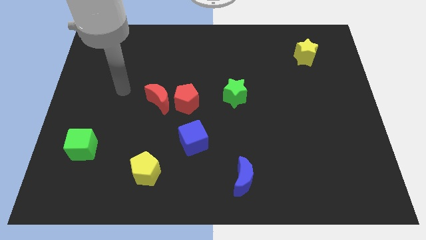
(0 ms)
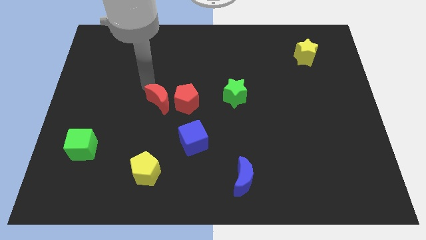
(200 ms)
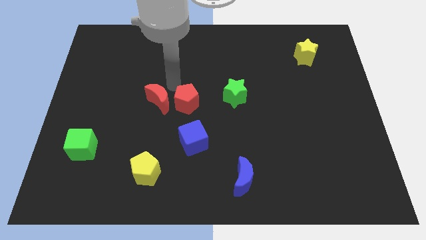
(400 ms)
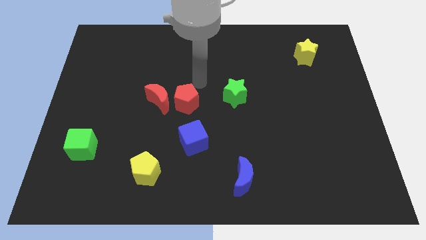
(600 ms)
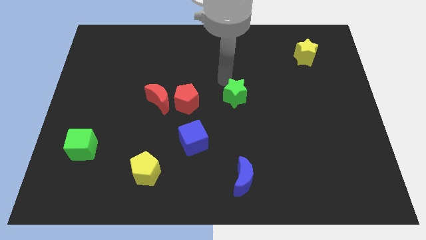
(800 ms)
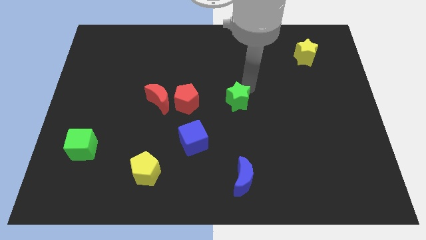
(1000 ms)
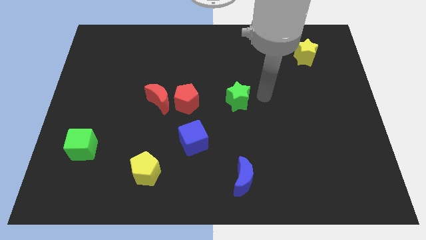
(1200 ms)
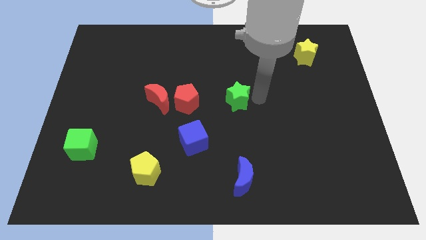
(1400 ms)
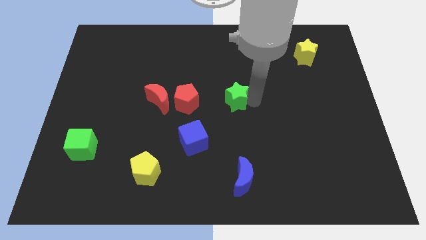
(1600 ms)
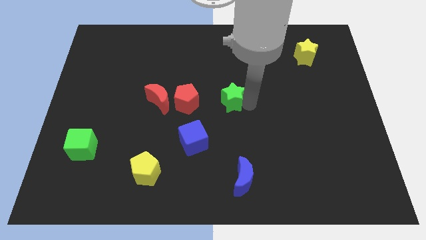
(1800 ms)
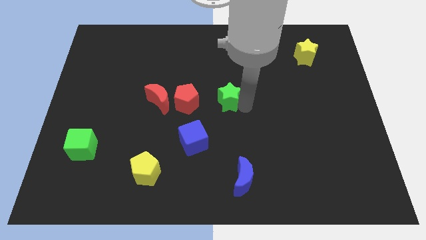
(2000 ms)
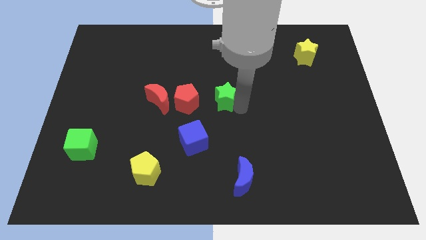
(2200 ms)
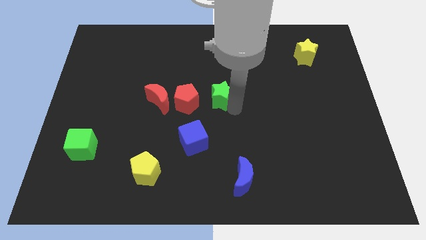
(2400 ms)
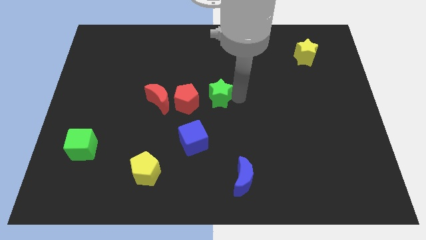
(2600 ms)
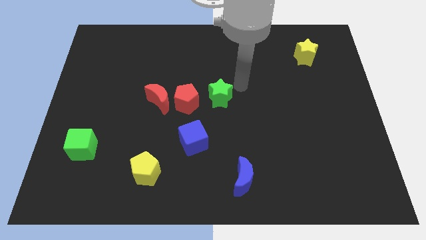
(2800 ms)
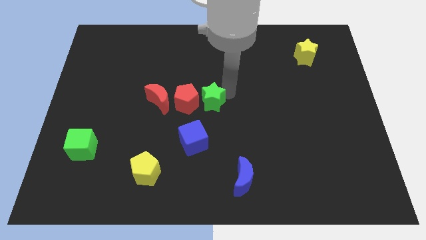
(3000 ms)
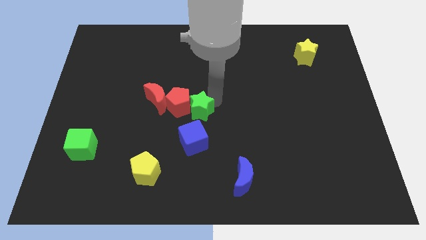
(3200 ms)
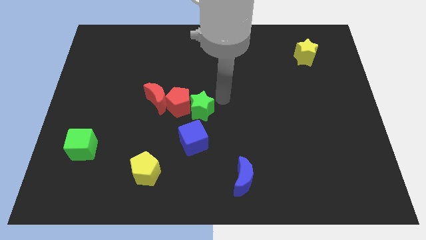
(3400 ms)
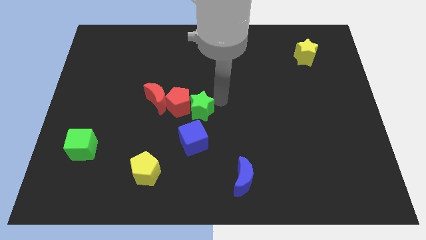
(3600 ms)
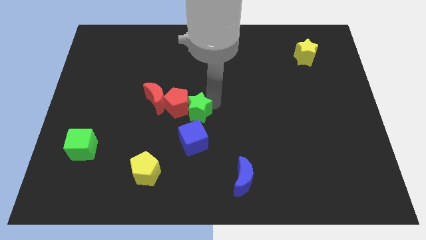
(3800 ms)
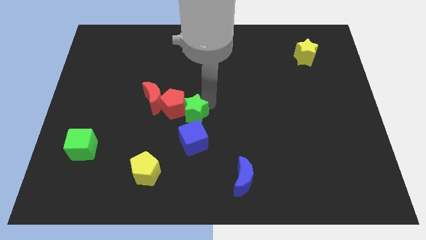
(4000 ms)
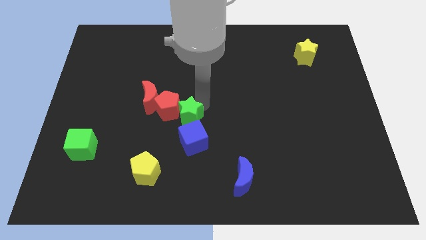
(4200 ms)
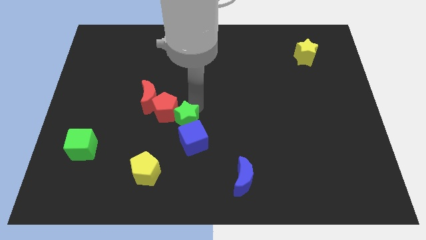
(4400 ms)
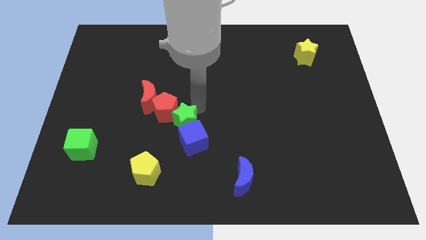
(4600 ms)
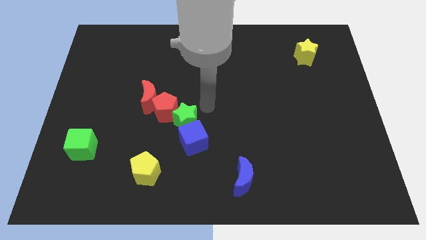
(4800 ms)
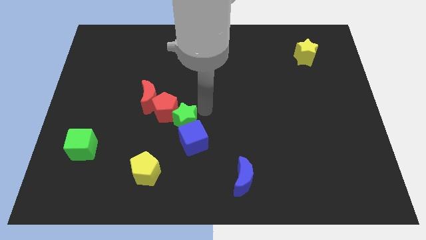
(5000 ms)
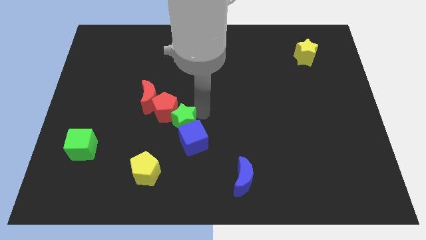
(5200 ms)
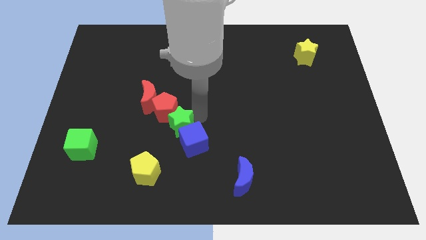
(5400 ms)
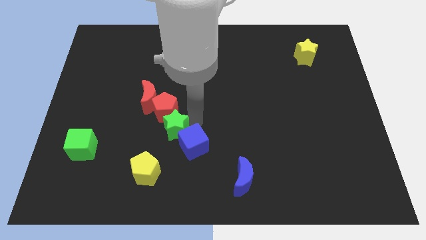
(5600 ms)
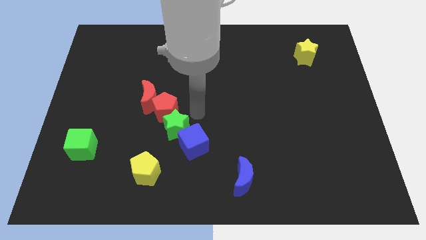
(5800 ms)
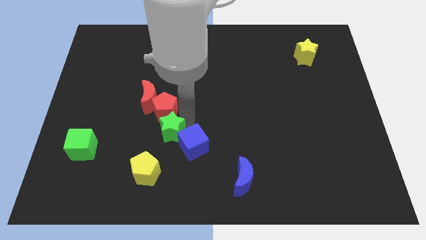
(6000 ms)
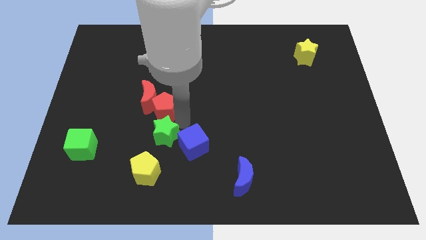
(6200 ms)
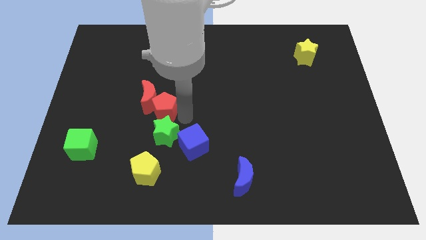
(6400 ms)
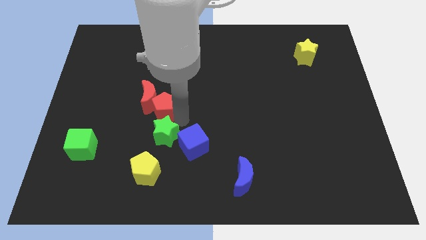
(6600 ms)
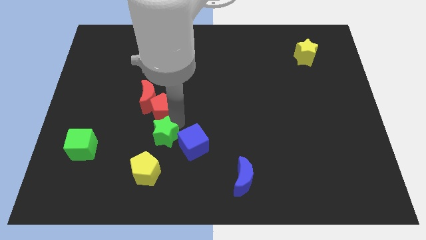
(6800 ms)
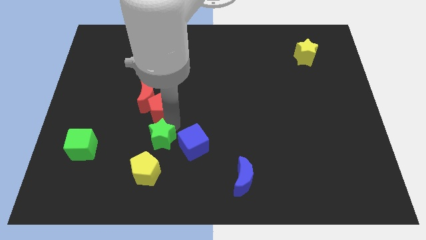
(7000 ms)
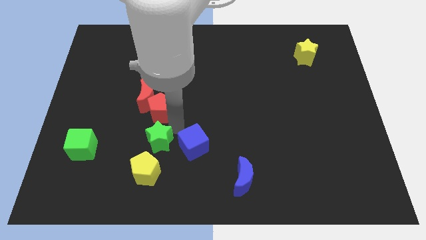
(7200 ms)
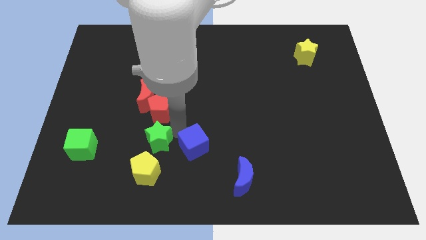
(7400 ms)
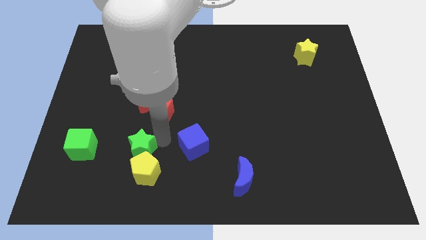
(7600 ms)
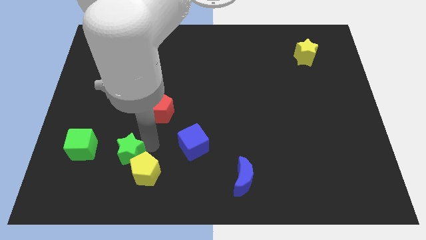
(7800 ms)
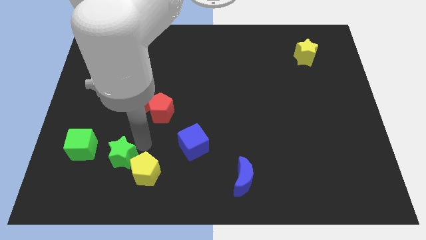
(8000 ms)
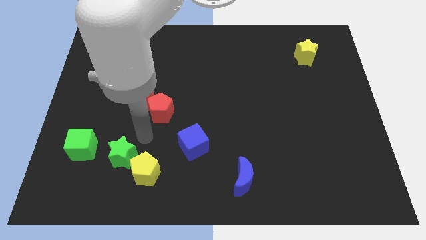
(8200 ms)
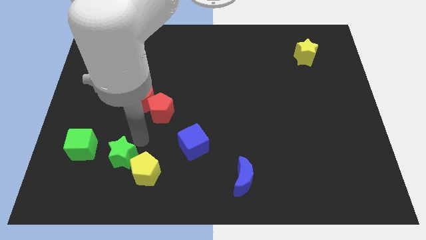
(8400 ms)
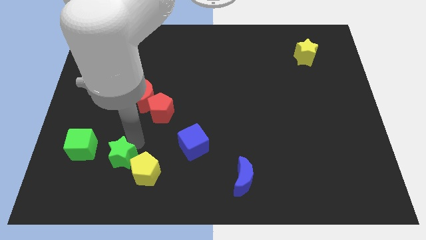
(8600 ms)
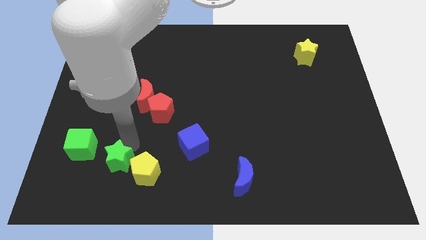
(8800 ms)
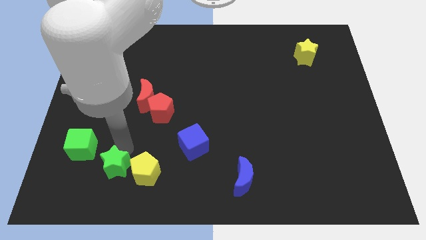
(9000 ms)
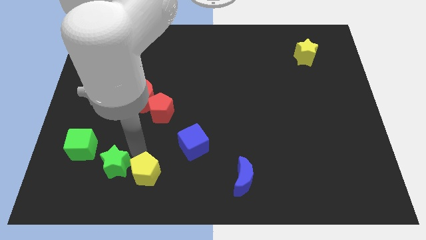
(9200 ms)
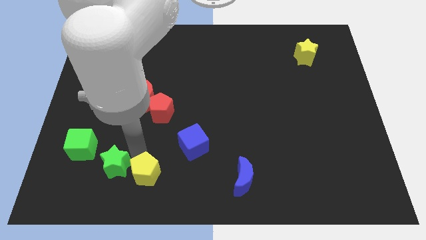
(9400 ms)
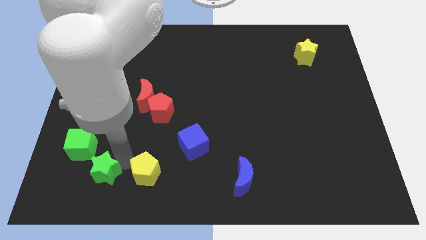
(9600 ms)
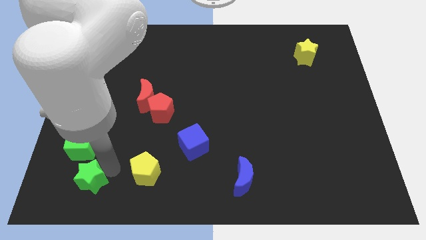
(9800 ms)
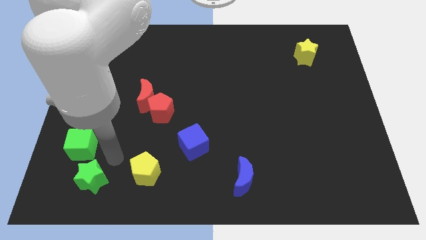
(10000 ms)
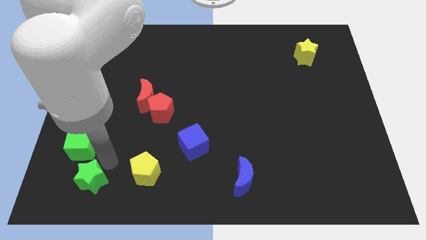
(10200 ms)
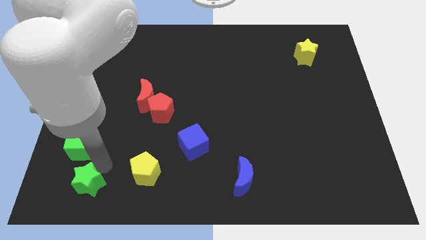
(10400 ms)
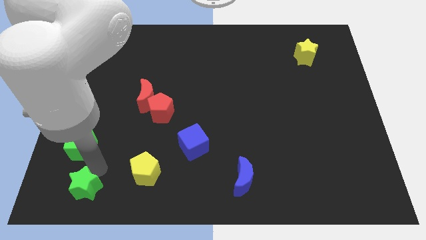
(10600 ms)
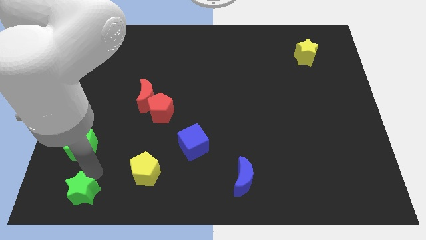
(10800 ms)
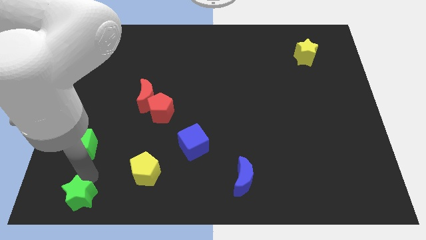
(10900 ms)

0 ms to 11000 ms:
slide the green star to the bottom left corner

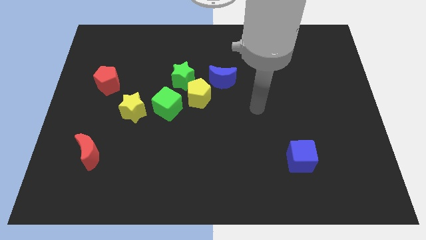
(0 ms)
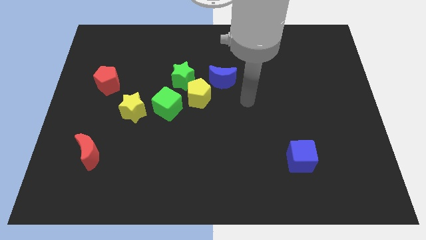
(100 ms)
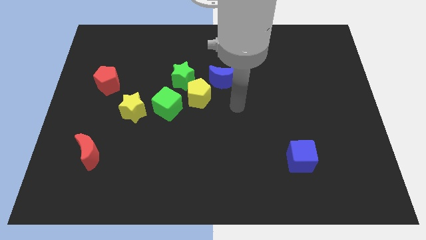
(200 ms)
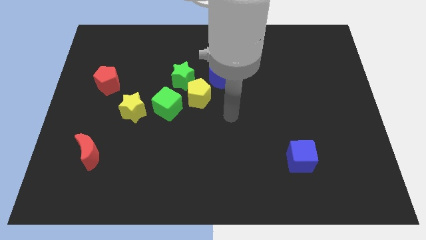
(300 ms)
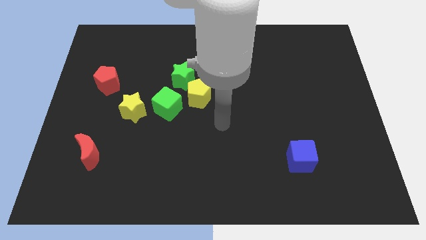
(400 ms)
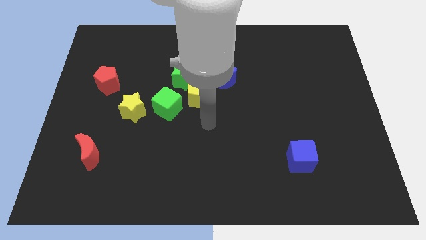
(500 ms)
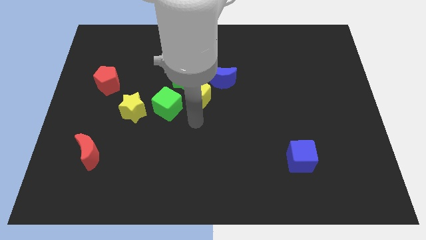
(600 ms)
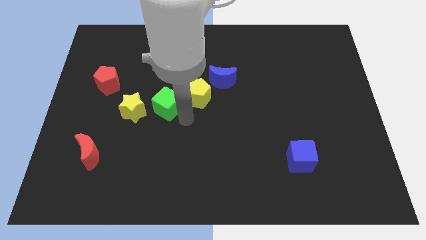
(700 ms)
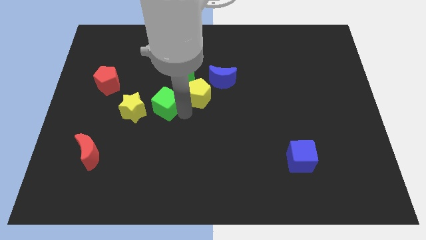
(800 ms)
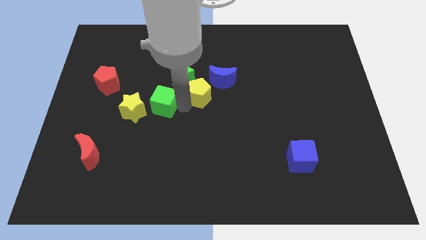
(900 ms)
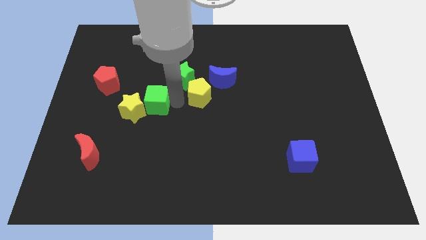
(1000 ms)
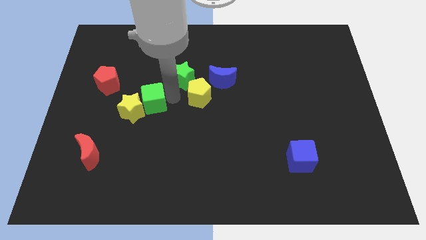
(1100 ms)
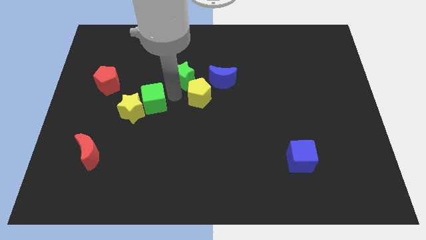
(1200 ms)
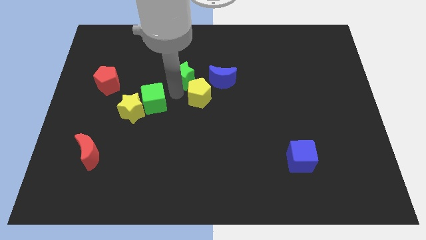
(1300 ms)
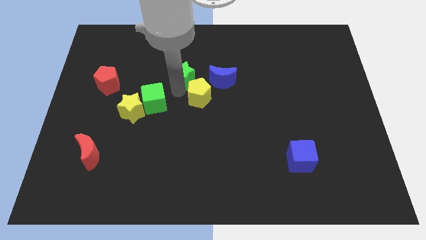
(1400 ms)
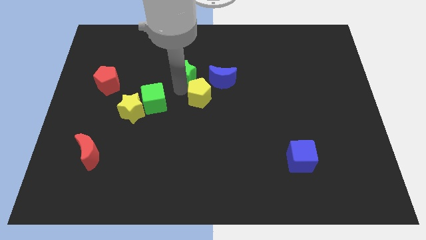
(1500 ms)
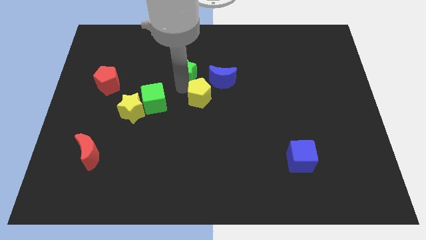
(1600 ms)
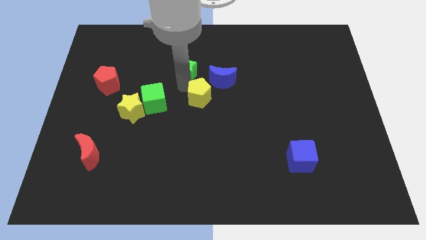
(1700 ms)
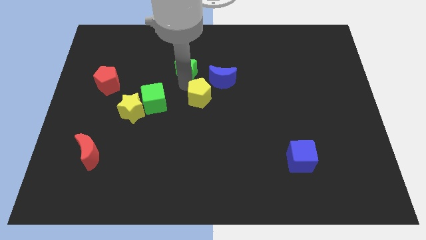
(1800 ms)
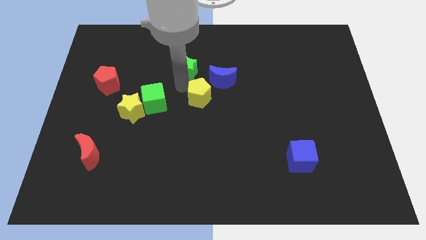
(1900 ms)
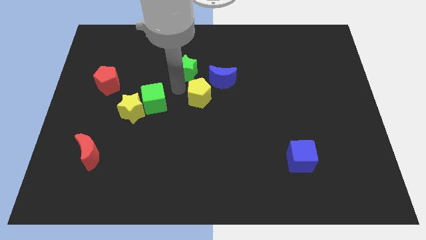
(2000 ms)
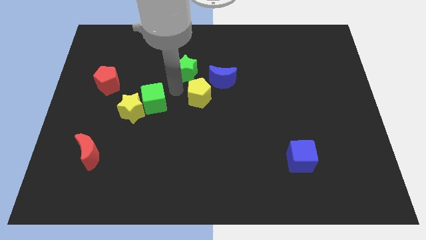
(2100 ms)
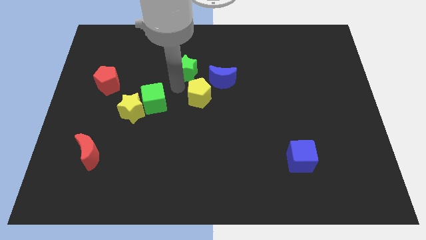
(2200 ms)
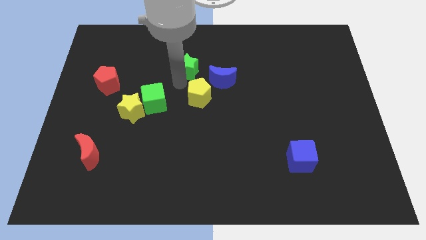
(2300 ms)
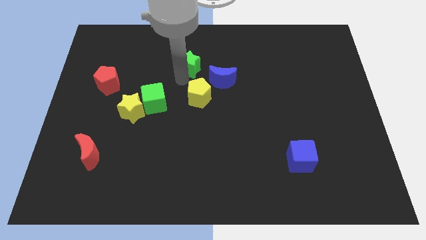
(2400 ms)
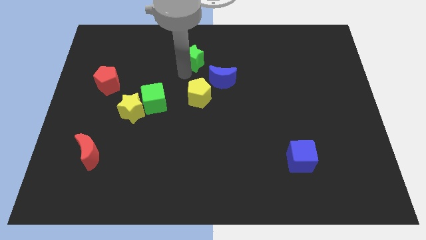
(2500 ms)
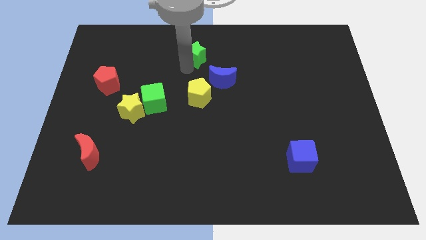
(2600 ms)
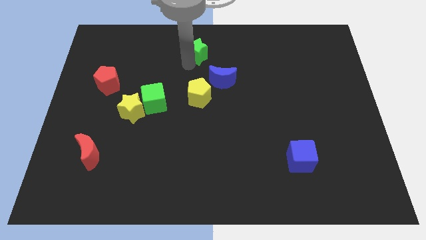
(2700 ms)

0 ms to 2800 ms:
put the green star to the top
